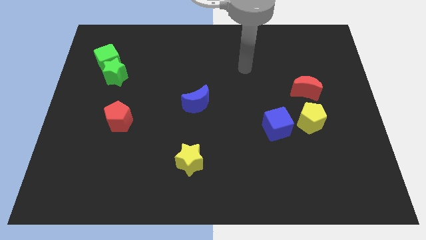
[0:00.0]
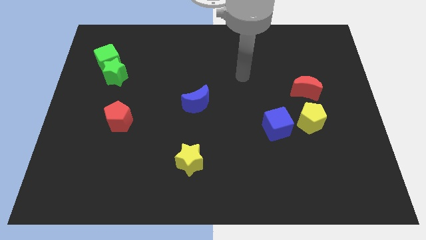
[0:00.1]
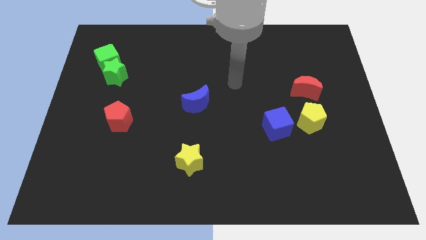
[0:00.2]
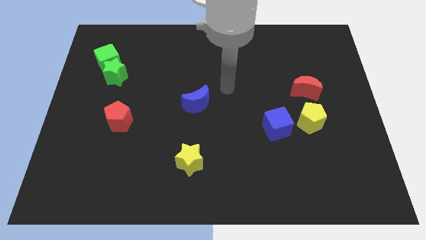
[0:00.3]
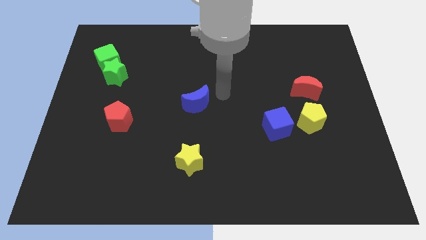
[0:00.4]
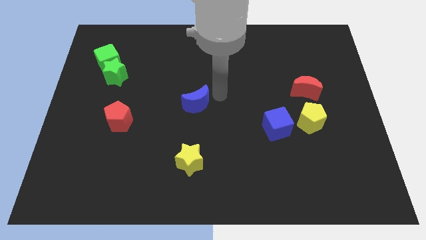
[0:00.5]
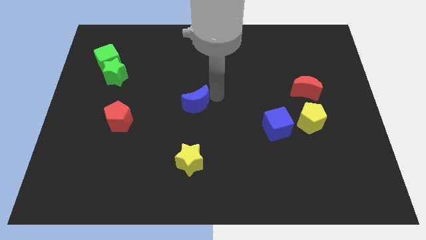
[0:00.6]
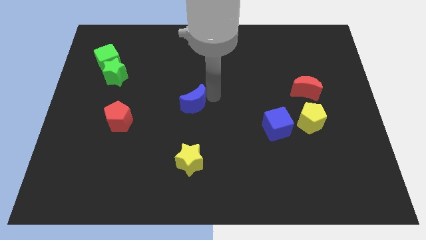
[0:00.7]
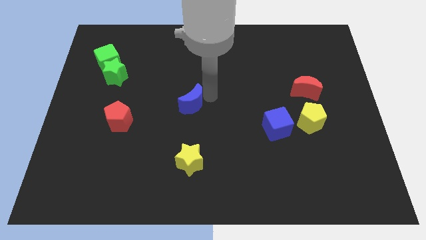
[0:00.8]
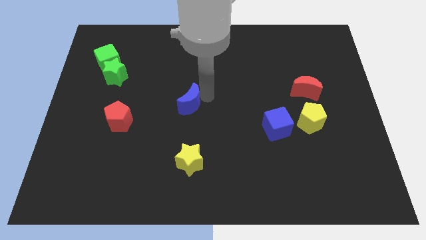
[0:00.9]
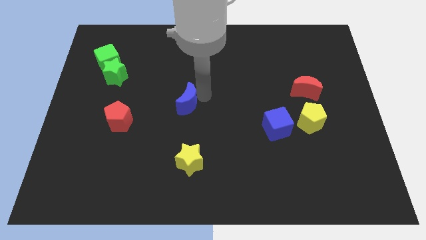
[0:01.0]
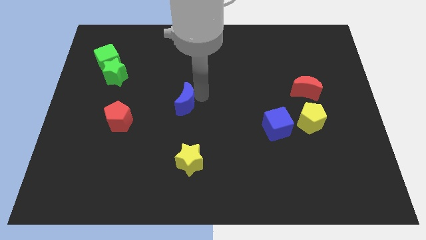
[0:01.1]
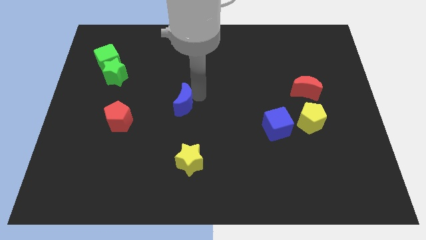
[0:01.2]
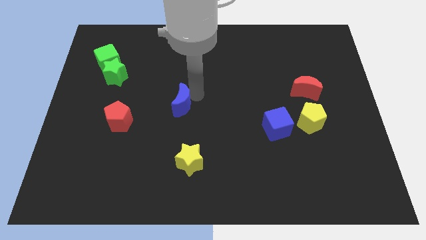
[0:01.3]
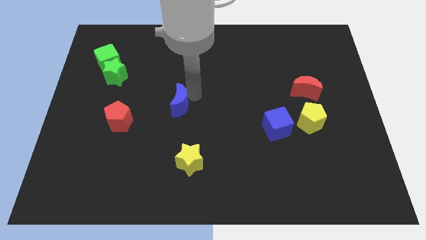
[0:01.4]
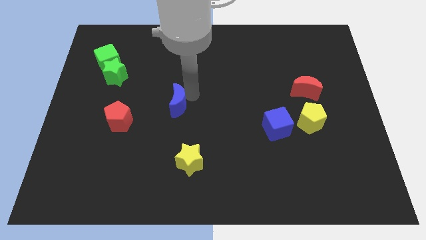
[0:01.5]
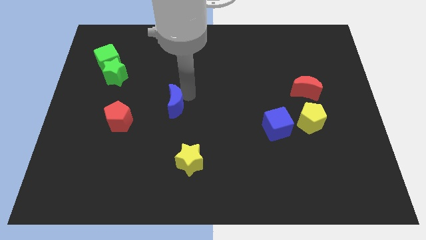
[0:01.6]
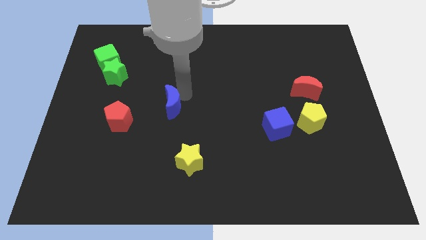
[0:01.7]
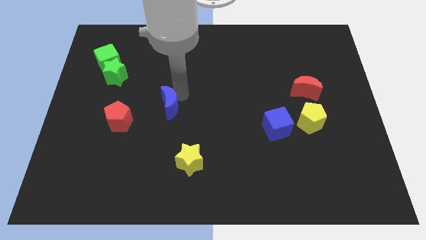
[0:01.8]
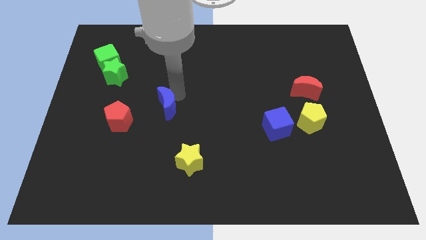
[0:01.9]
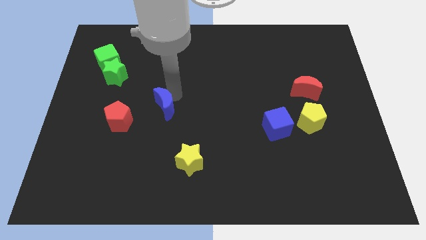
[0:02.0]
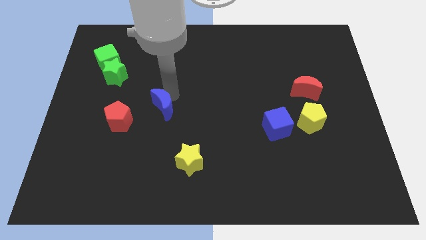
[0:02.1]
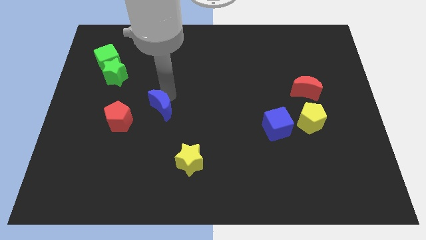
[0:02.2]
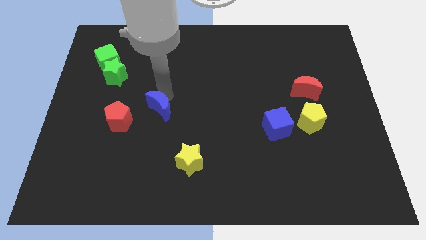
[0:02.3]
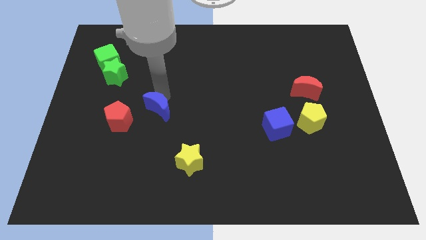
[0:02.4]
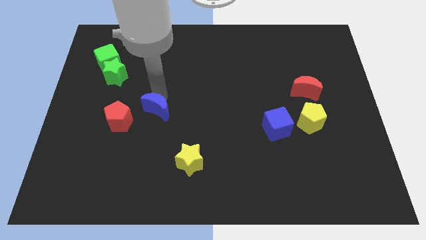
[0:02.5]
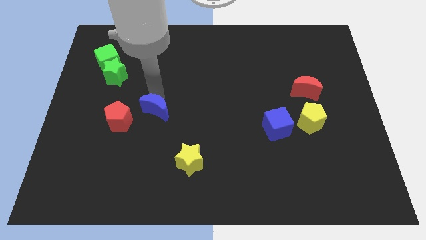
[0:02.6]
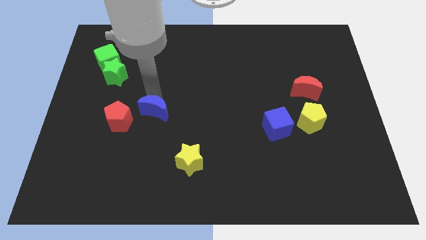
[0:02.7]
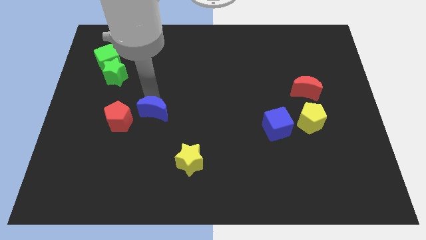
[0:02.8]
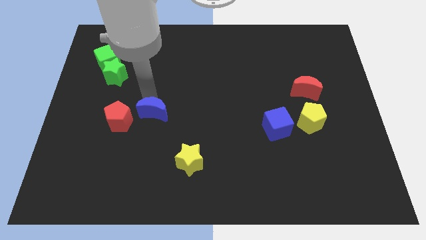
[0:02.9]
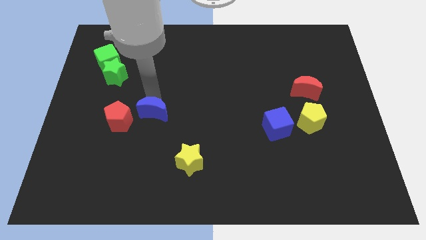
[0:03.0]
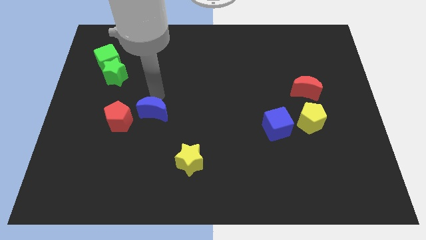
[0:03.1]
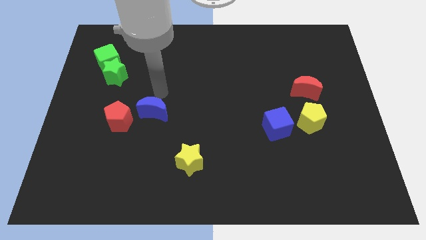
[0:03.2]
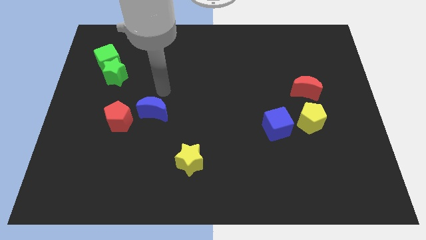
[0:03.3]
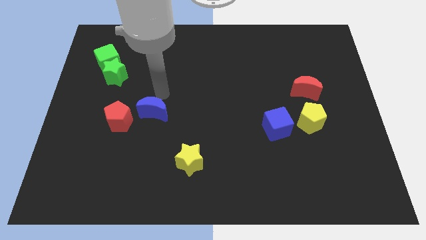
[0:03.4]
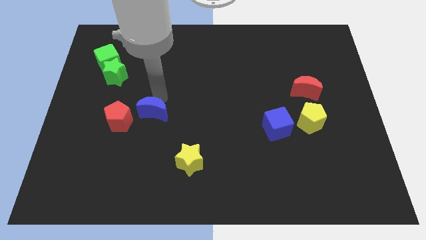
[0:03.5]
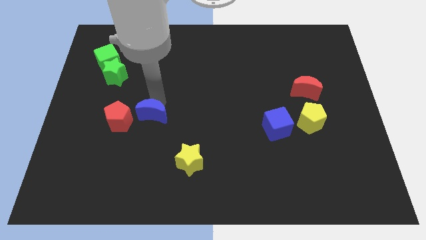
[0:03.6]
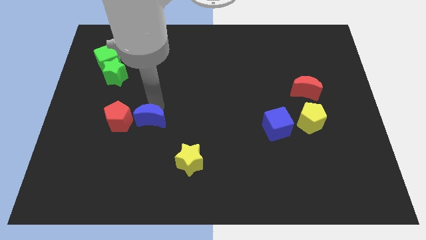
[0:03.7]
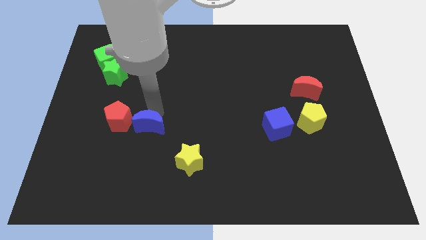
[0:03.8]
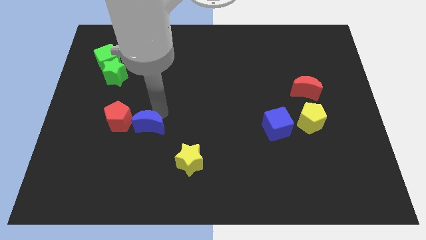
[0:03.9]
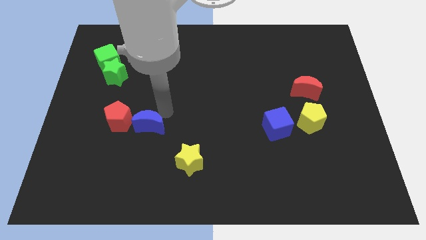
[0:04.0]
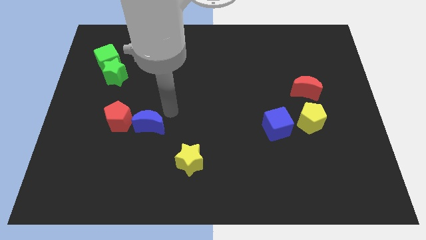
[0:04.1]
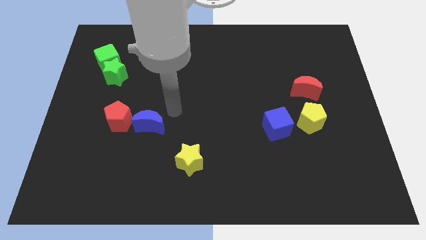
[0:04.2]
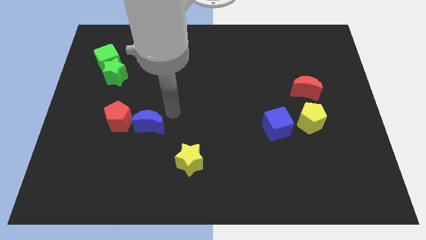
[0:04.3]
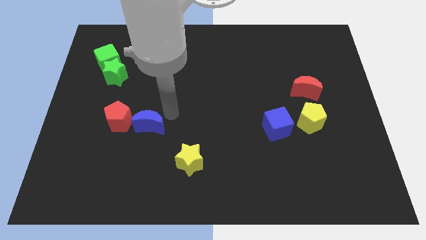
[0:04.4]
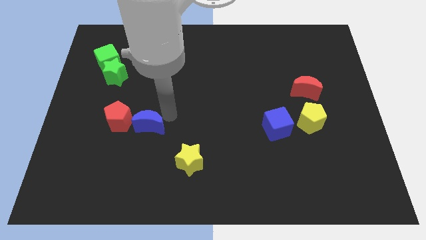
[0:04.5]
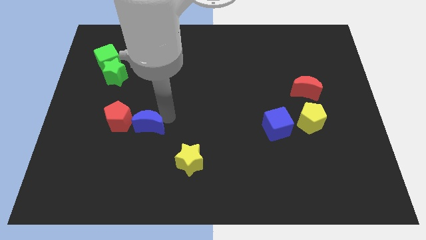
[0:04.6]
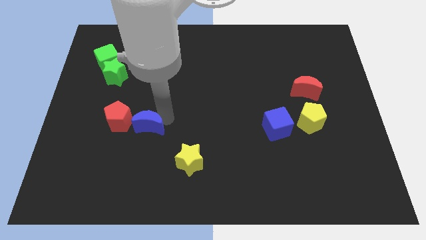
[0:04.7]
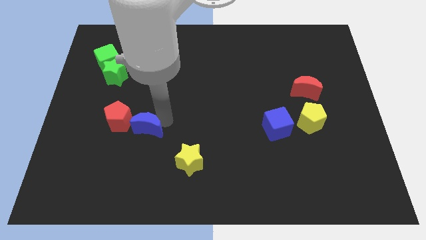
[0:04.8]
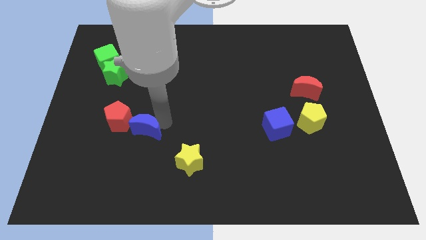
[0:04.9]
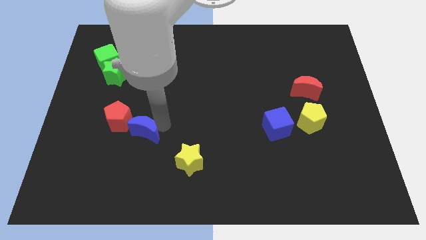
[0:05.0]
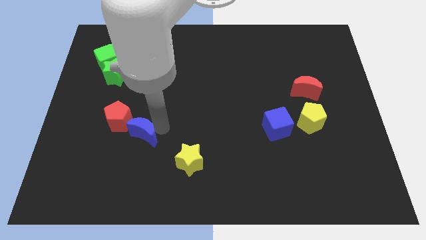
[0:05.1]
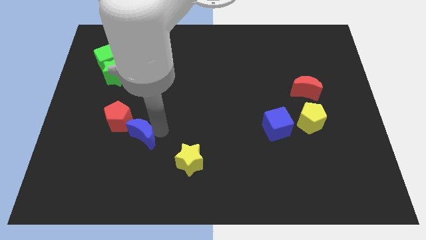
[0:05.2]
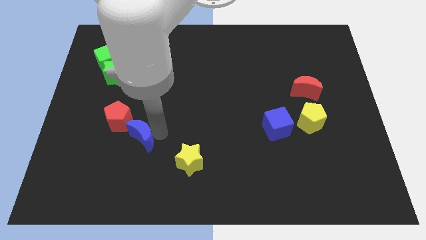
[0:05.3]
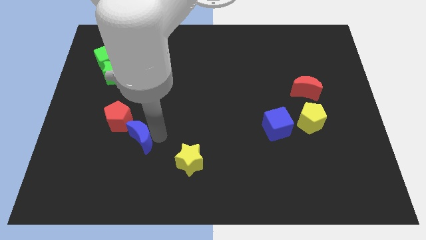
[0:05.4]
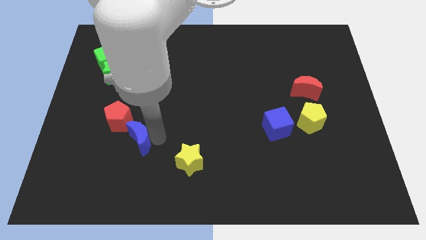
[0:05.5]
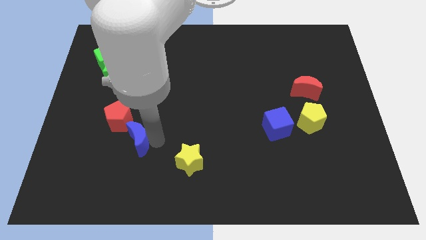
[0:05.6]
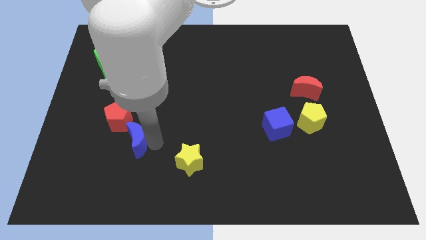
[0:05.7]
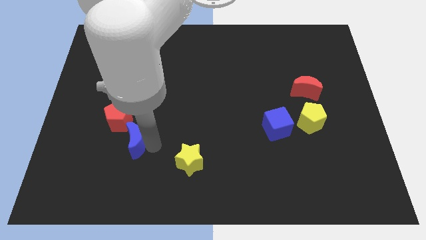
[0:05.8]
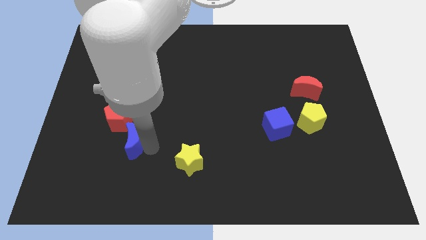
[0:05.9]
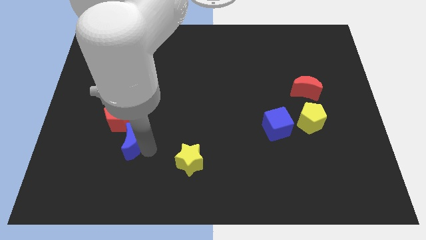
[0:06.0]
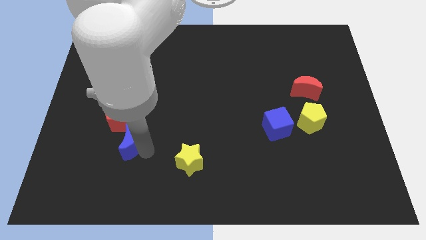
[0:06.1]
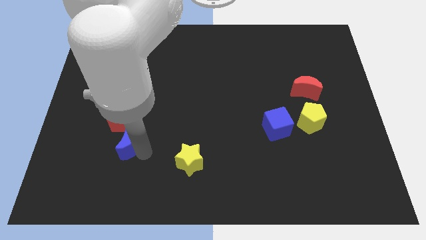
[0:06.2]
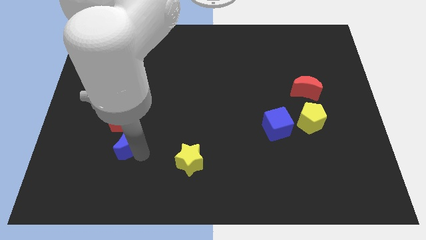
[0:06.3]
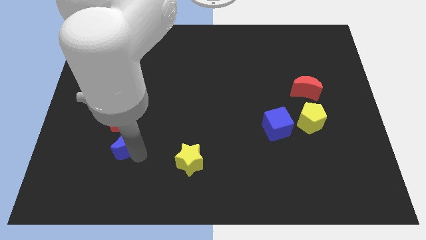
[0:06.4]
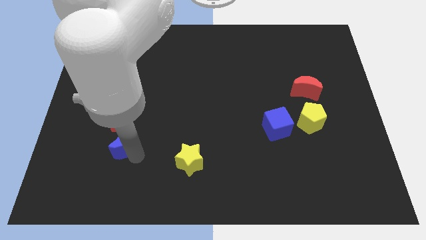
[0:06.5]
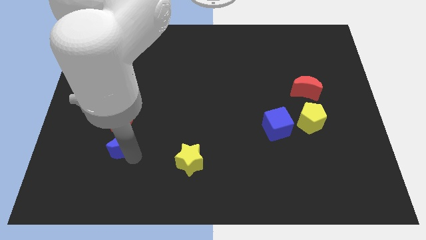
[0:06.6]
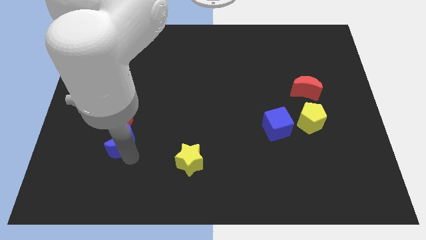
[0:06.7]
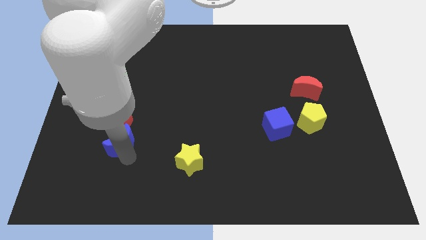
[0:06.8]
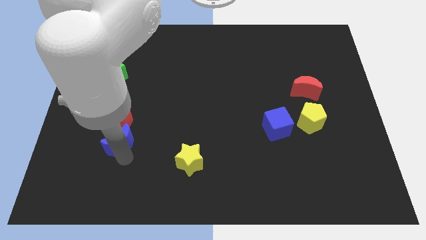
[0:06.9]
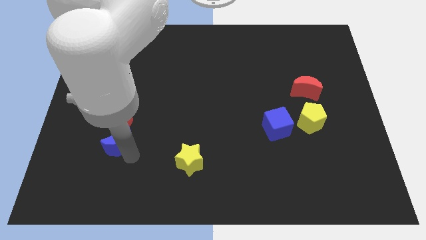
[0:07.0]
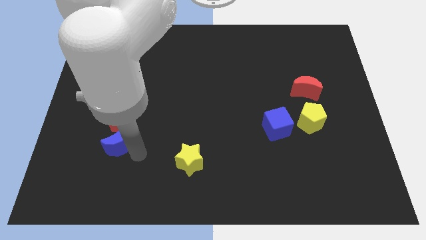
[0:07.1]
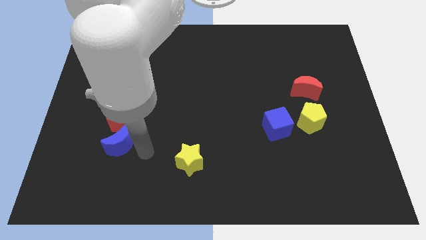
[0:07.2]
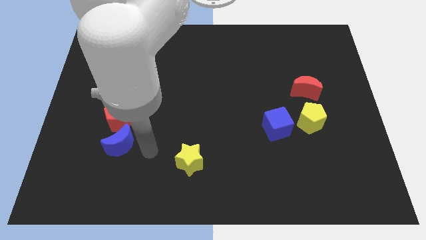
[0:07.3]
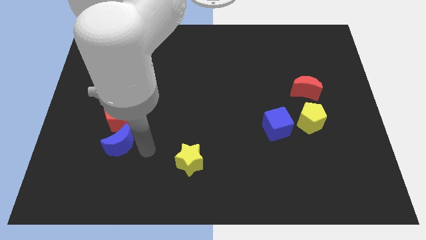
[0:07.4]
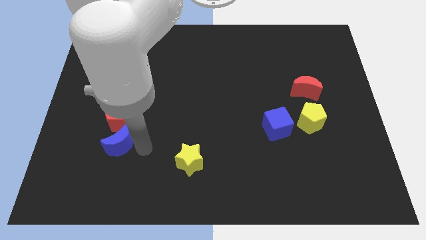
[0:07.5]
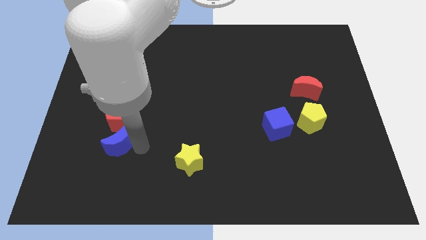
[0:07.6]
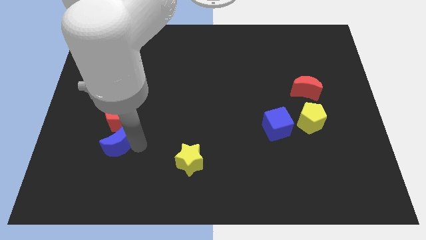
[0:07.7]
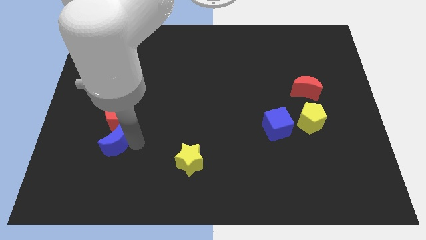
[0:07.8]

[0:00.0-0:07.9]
slide the blue moon diagonally down and to the left of the red pentagon
